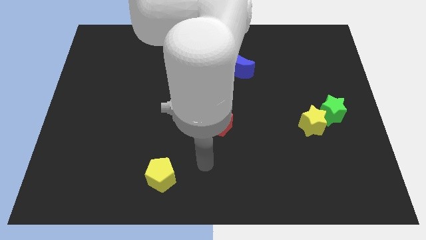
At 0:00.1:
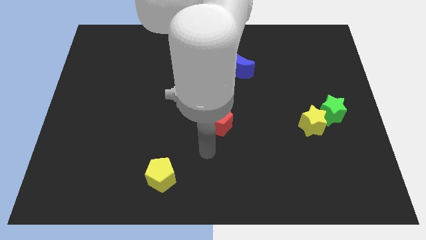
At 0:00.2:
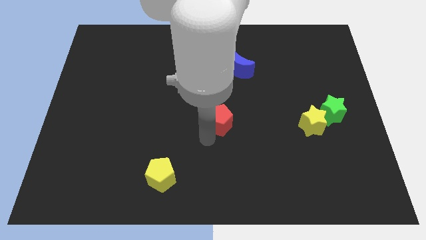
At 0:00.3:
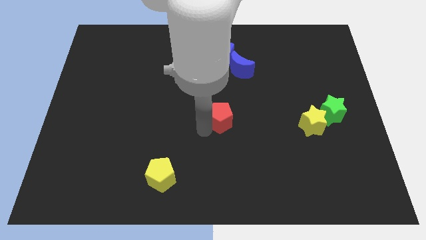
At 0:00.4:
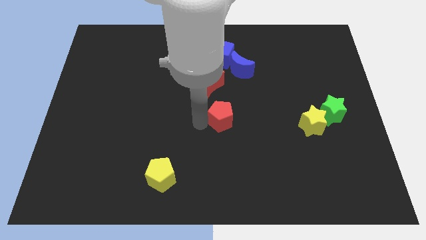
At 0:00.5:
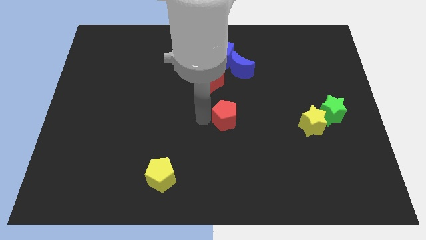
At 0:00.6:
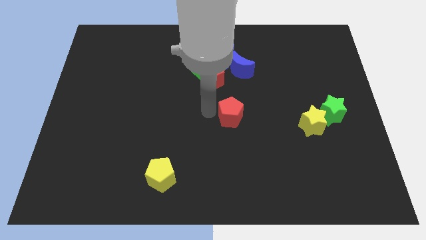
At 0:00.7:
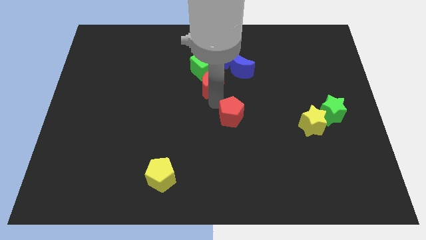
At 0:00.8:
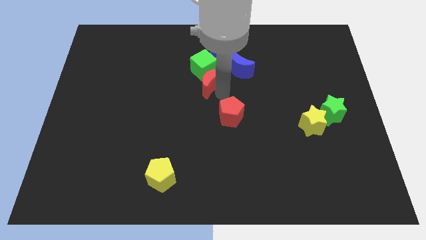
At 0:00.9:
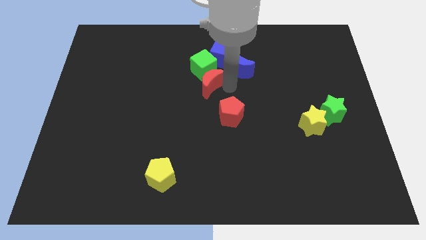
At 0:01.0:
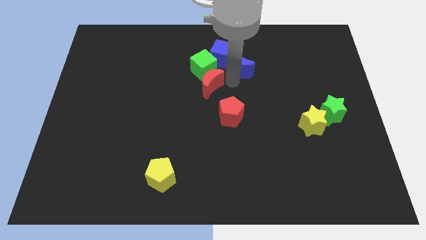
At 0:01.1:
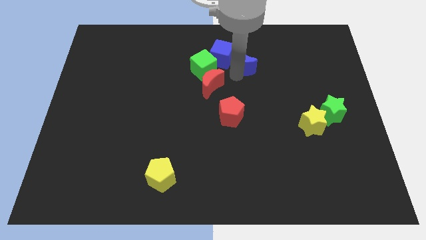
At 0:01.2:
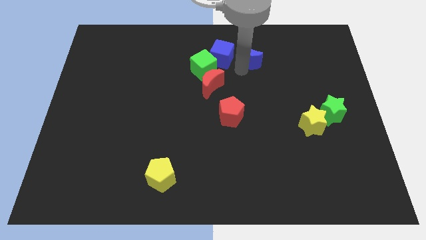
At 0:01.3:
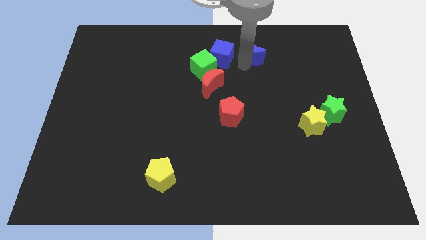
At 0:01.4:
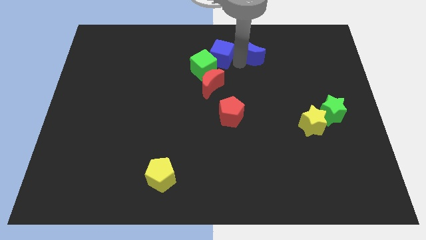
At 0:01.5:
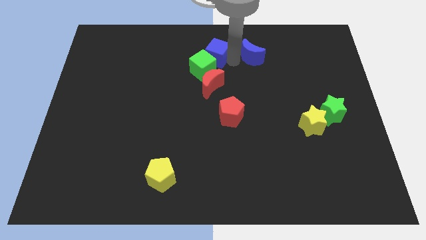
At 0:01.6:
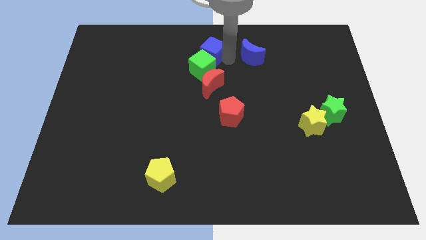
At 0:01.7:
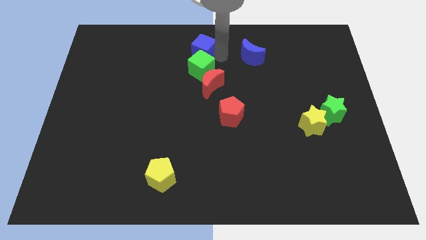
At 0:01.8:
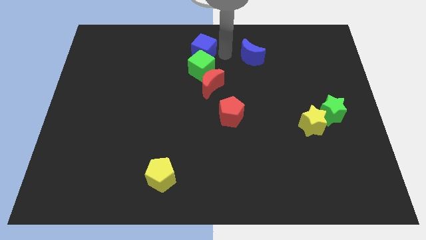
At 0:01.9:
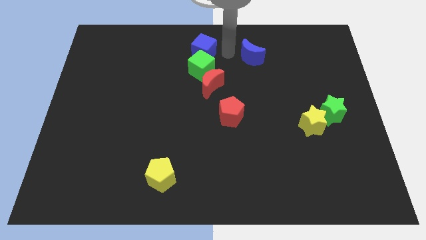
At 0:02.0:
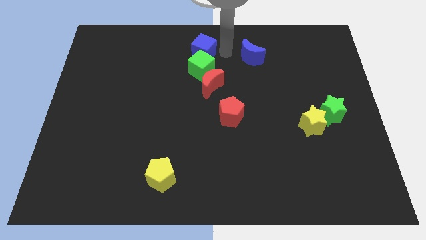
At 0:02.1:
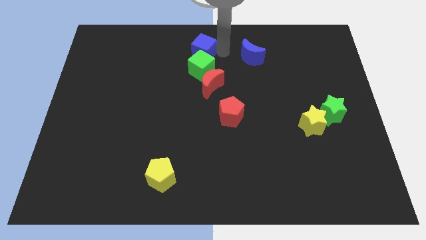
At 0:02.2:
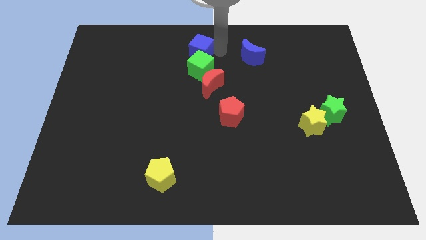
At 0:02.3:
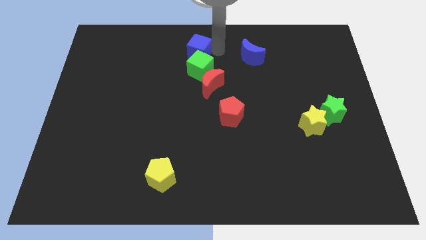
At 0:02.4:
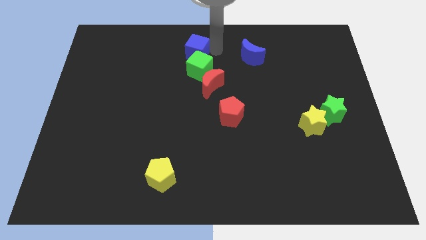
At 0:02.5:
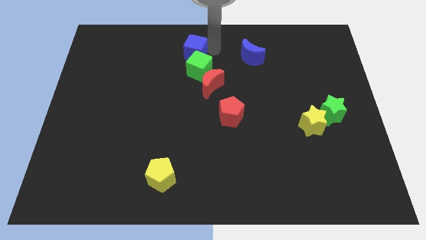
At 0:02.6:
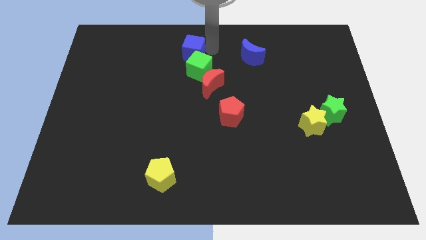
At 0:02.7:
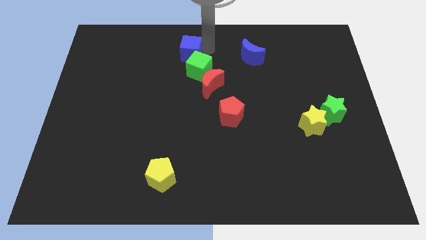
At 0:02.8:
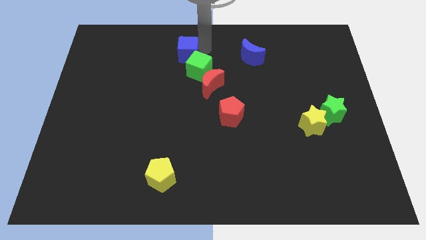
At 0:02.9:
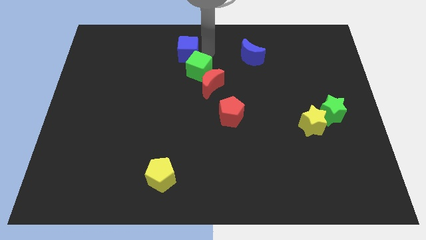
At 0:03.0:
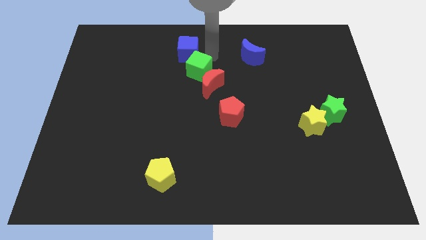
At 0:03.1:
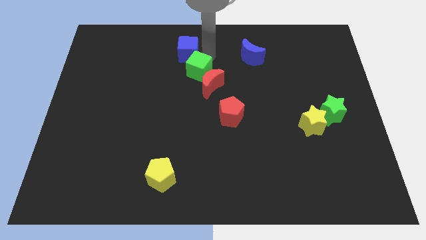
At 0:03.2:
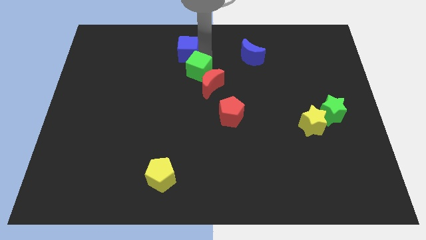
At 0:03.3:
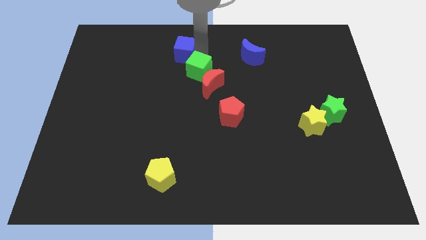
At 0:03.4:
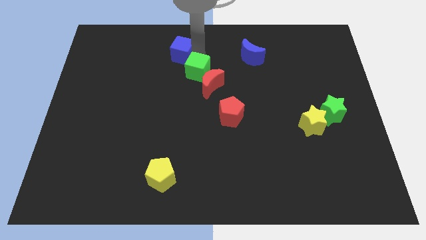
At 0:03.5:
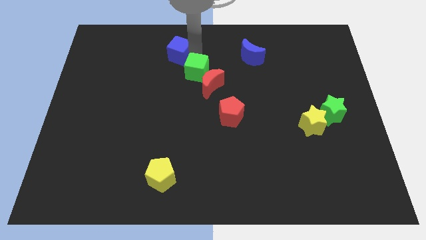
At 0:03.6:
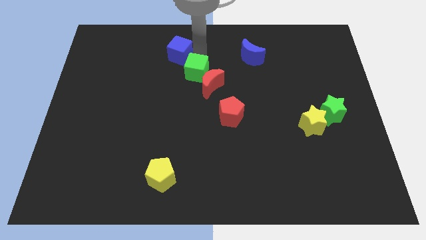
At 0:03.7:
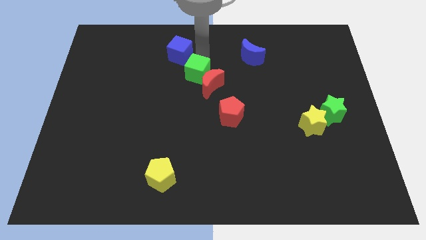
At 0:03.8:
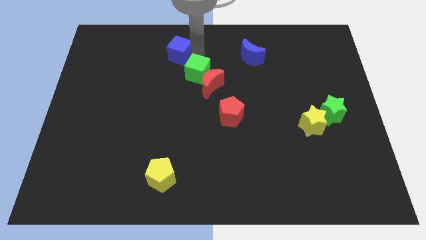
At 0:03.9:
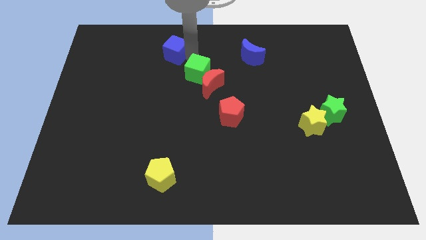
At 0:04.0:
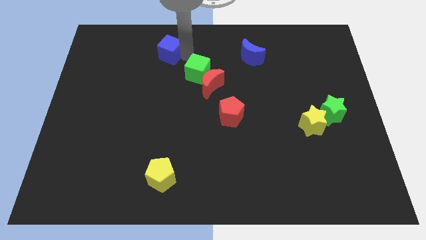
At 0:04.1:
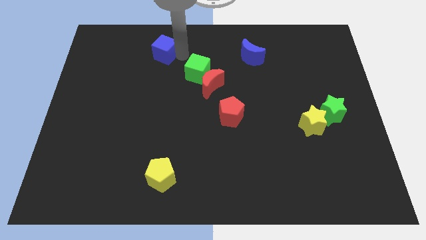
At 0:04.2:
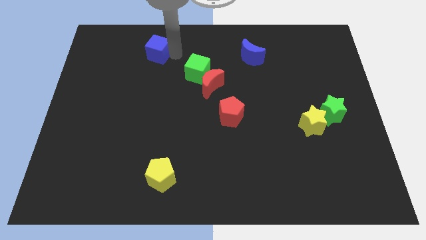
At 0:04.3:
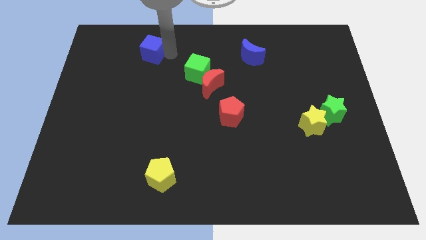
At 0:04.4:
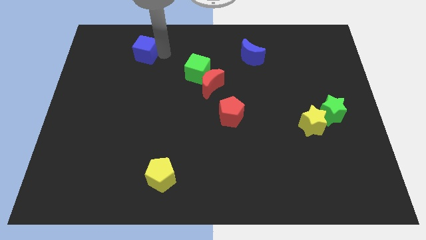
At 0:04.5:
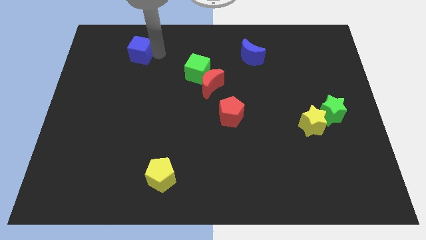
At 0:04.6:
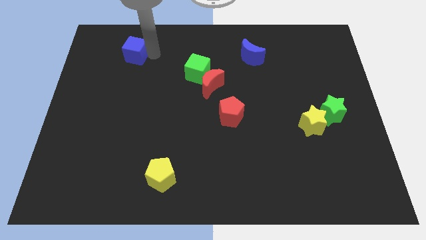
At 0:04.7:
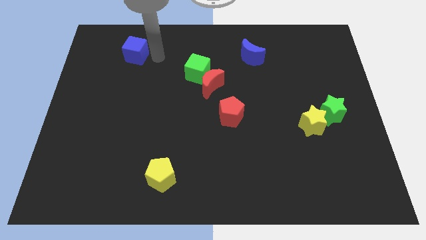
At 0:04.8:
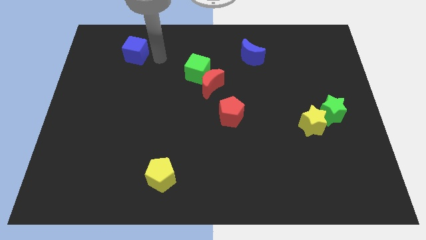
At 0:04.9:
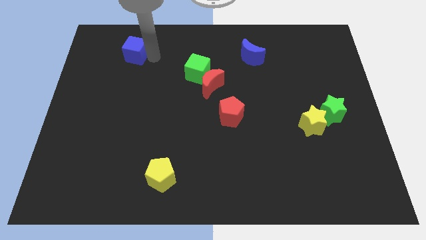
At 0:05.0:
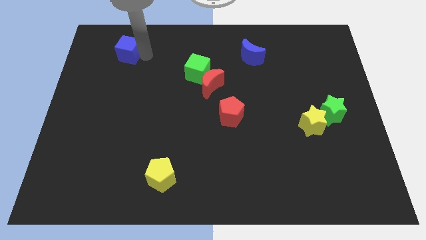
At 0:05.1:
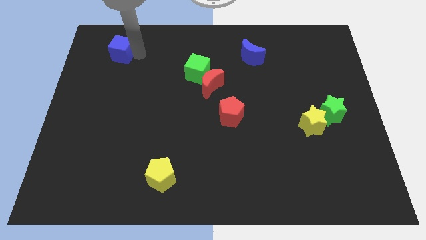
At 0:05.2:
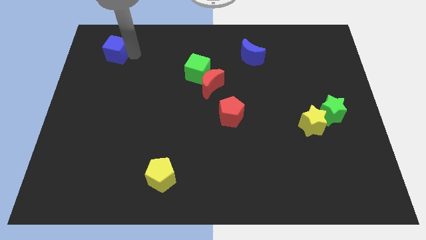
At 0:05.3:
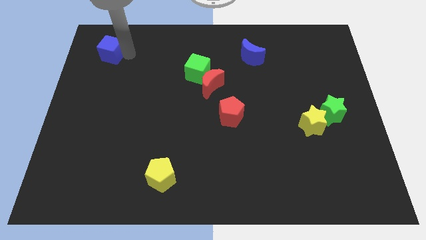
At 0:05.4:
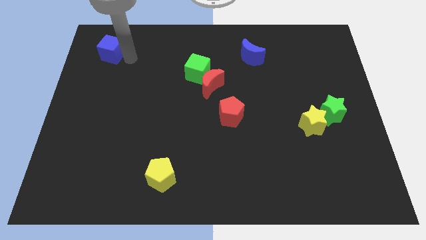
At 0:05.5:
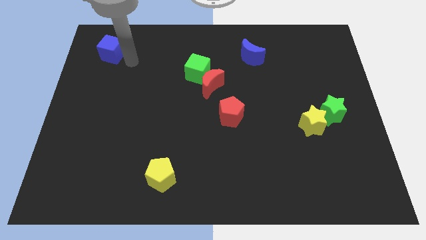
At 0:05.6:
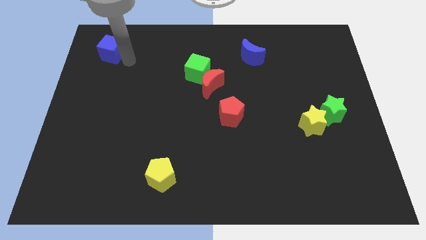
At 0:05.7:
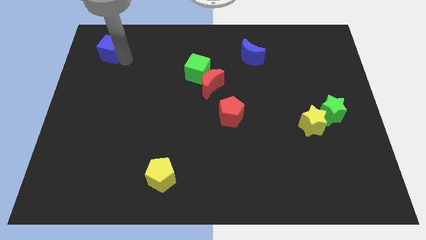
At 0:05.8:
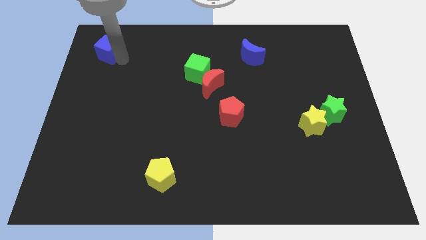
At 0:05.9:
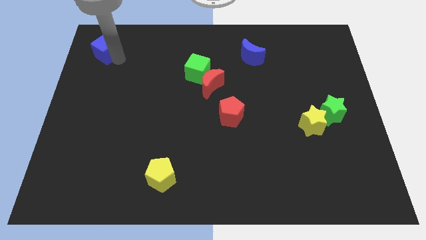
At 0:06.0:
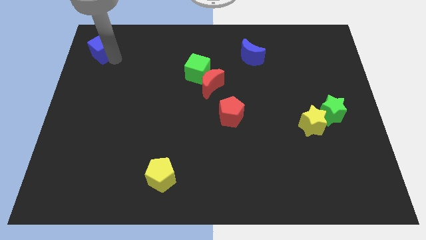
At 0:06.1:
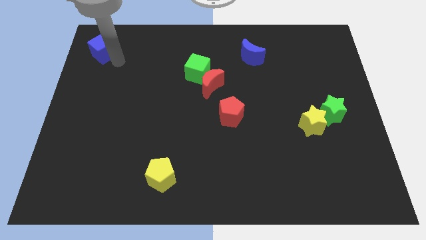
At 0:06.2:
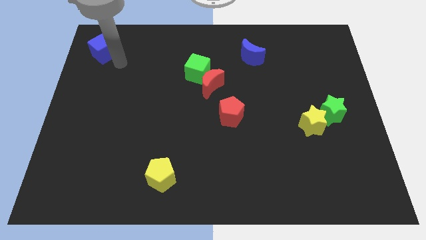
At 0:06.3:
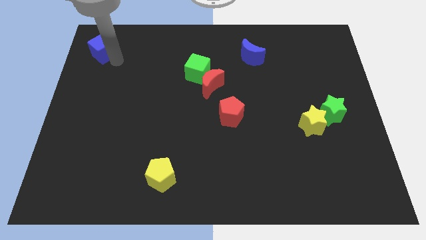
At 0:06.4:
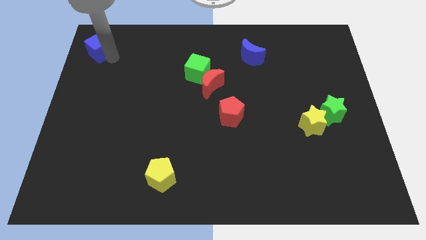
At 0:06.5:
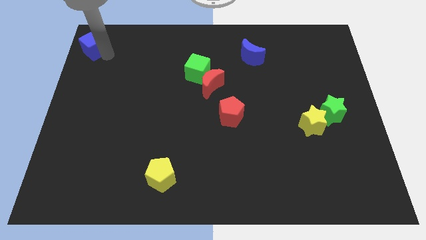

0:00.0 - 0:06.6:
slide the blue cube to the top left

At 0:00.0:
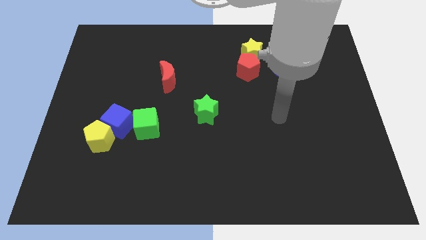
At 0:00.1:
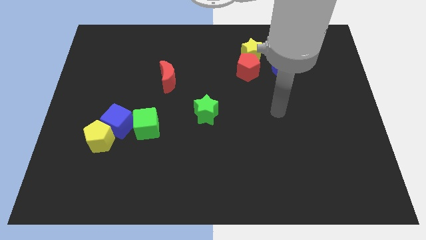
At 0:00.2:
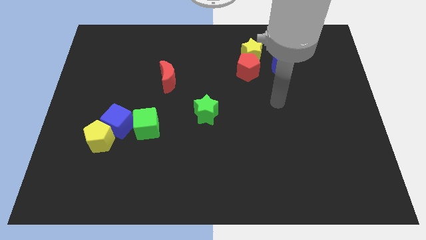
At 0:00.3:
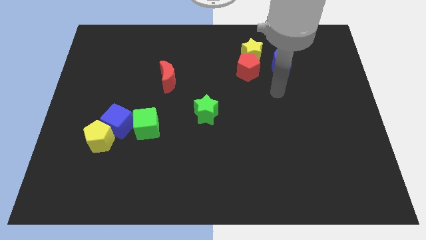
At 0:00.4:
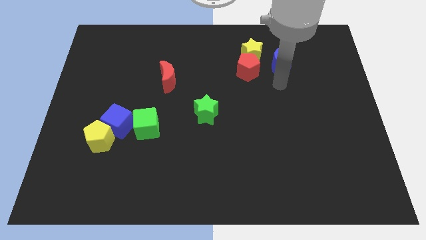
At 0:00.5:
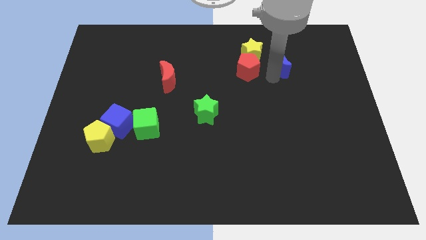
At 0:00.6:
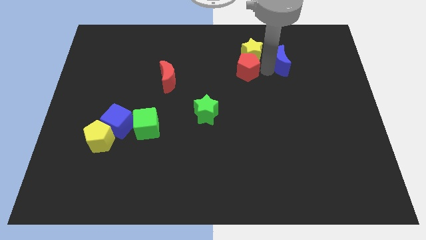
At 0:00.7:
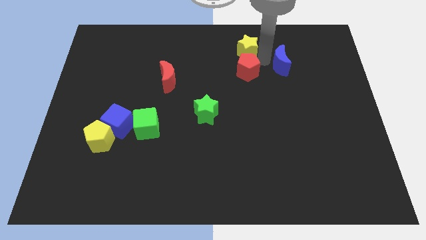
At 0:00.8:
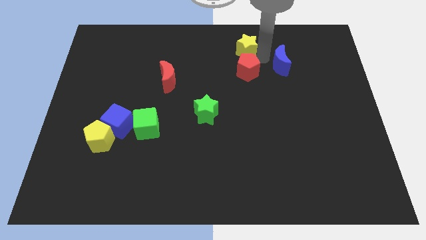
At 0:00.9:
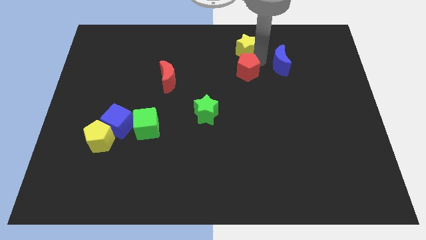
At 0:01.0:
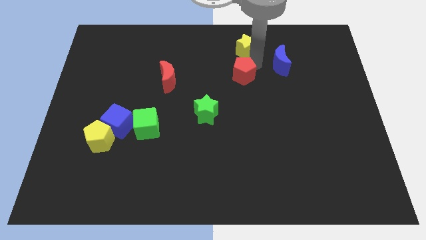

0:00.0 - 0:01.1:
put the red pentagon to the middle of the board
